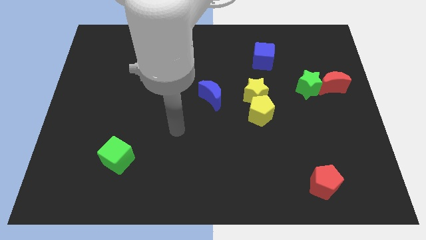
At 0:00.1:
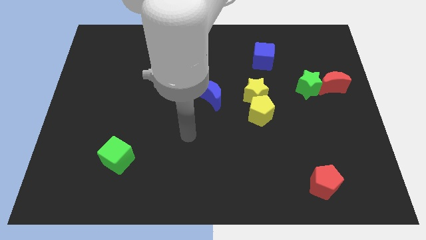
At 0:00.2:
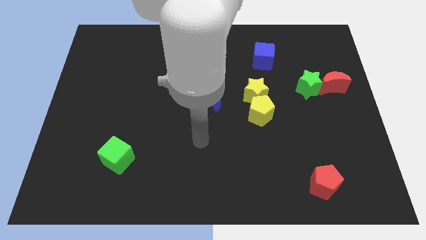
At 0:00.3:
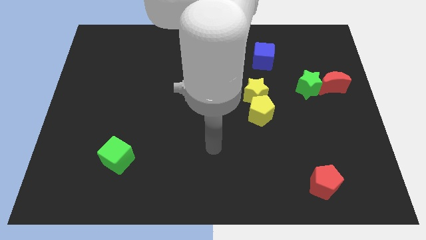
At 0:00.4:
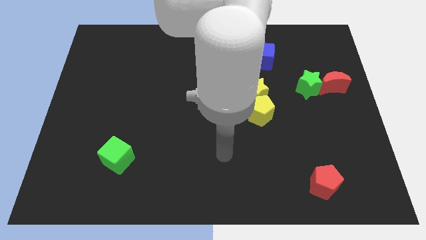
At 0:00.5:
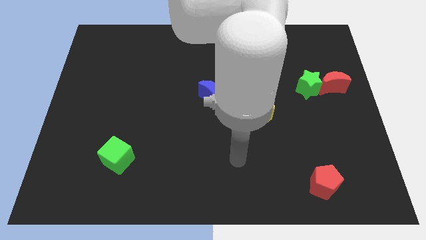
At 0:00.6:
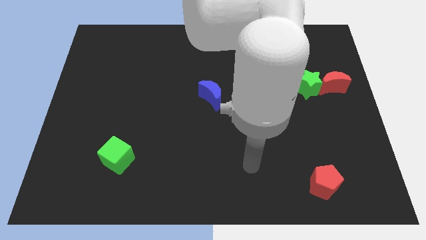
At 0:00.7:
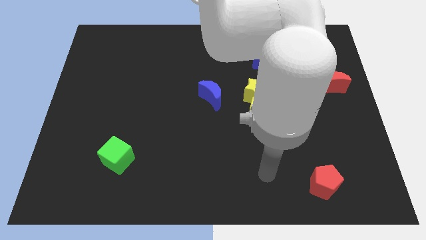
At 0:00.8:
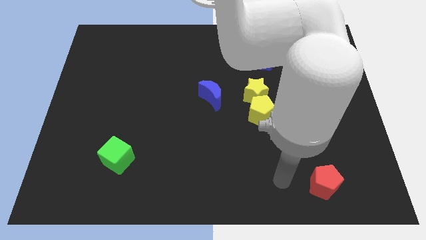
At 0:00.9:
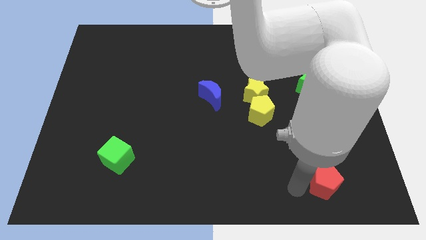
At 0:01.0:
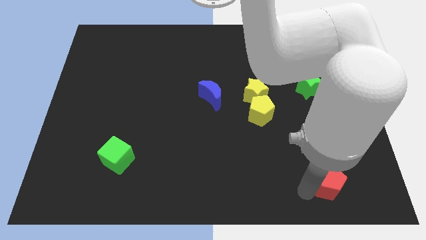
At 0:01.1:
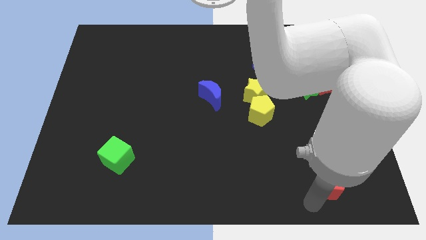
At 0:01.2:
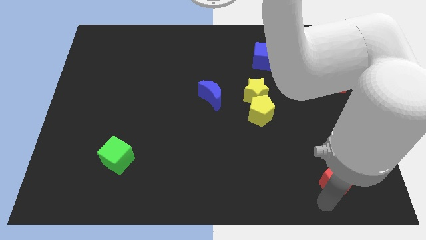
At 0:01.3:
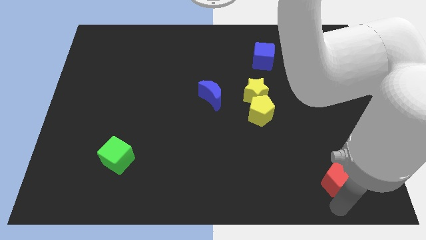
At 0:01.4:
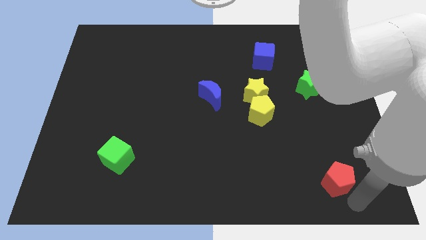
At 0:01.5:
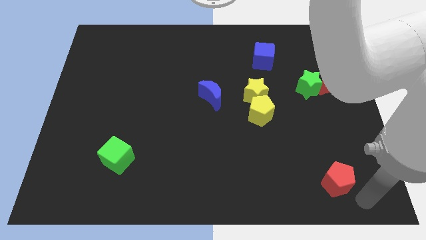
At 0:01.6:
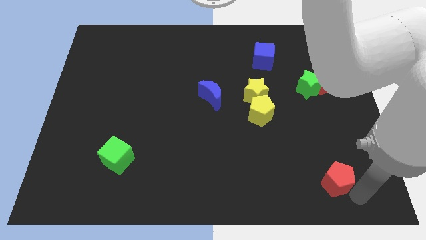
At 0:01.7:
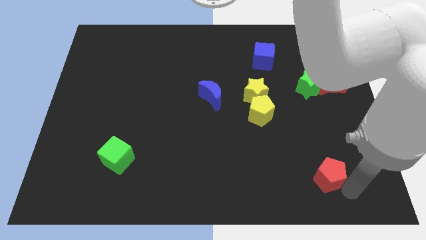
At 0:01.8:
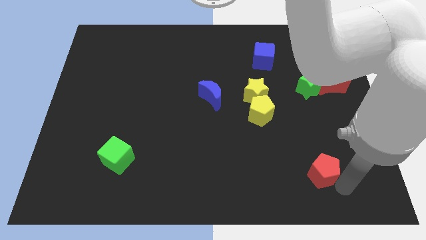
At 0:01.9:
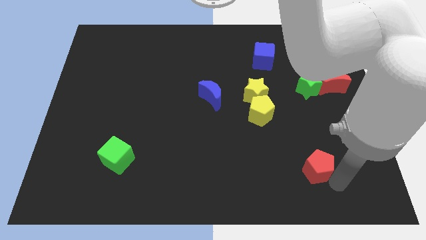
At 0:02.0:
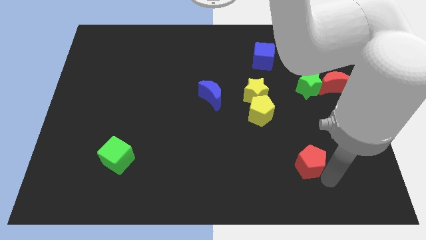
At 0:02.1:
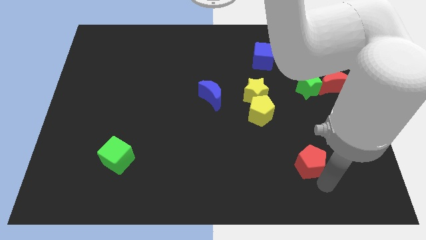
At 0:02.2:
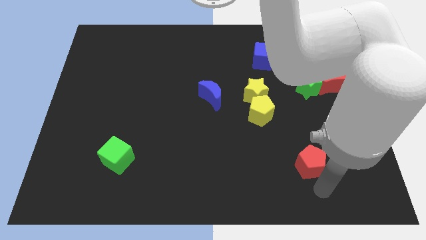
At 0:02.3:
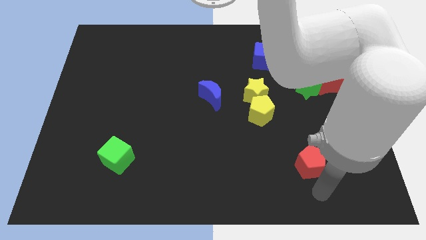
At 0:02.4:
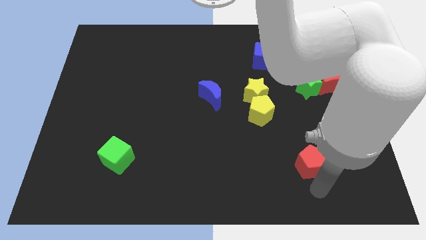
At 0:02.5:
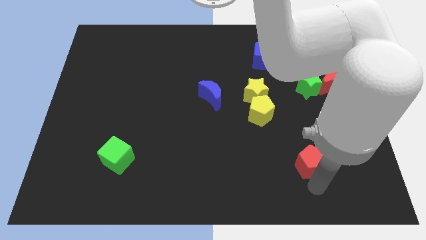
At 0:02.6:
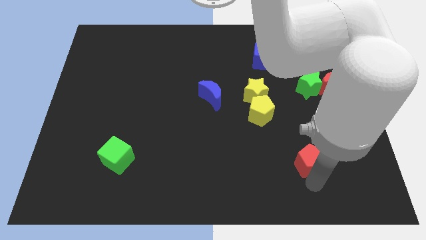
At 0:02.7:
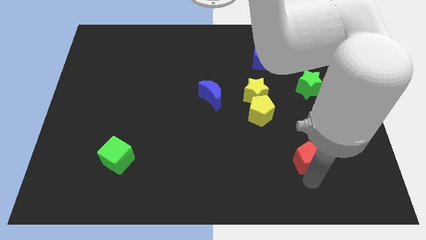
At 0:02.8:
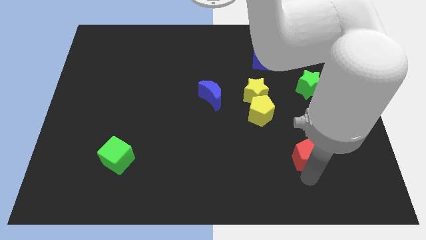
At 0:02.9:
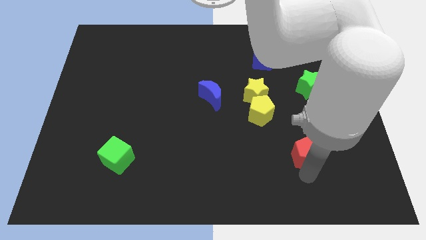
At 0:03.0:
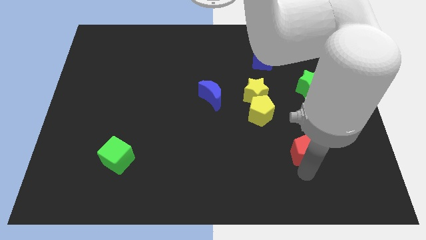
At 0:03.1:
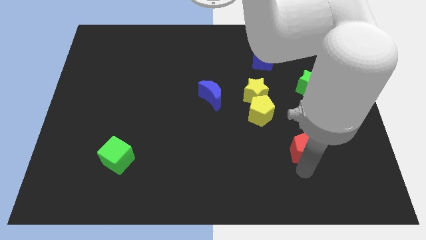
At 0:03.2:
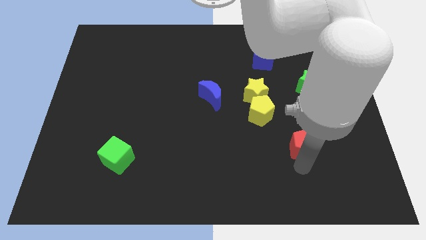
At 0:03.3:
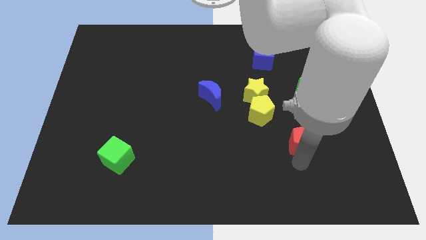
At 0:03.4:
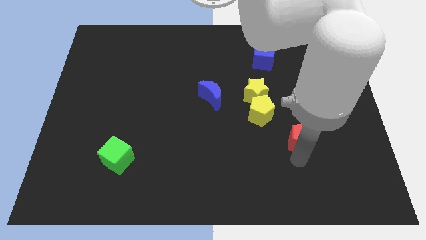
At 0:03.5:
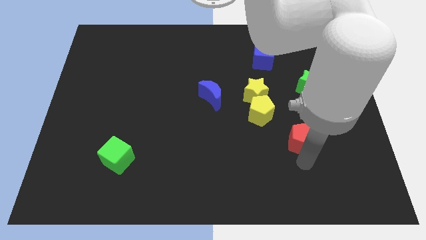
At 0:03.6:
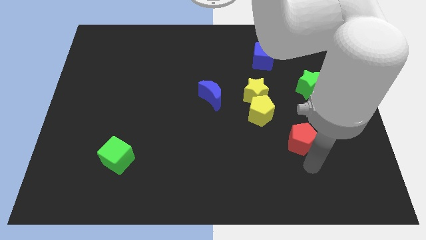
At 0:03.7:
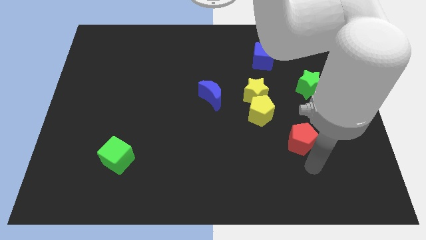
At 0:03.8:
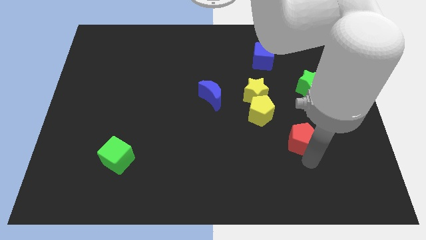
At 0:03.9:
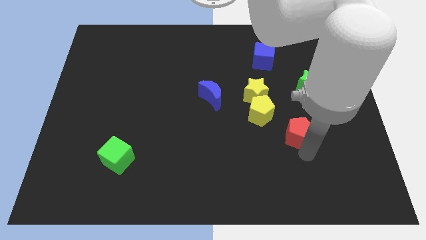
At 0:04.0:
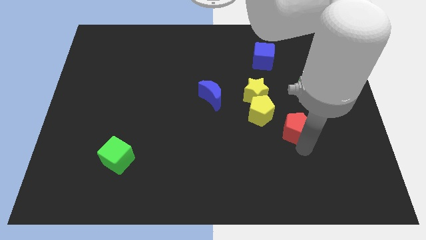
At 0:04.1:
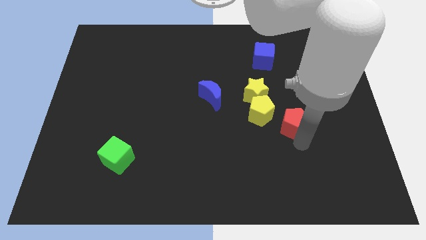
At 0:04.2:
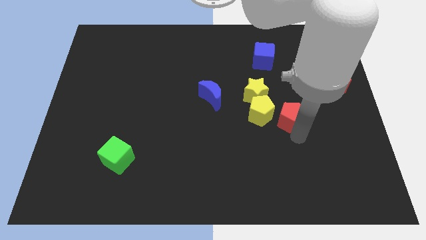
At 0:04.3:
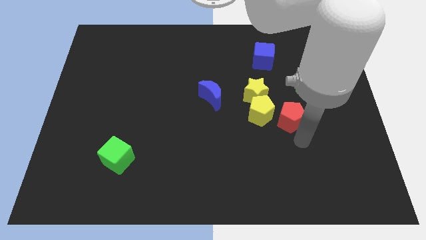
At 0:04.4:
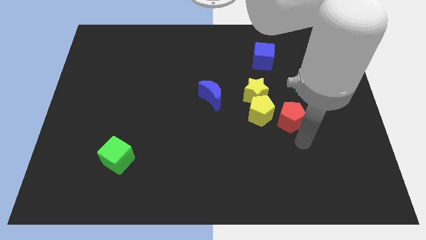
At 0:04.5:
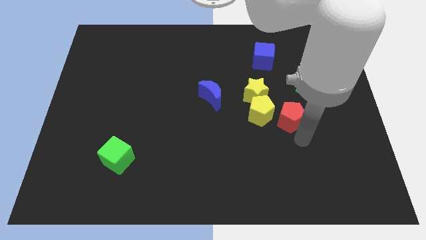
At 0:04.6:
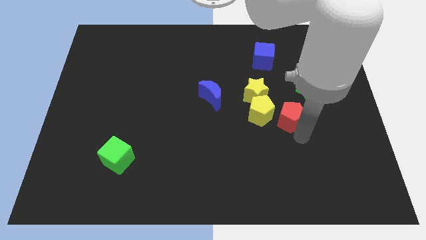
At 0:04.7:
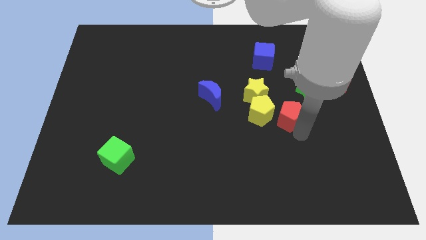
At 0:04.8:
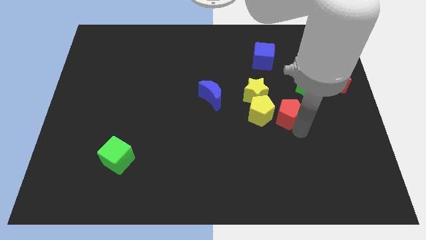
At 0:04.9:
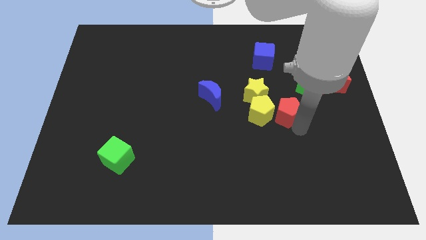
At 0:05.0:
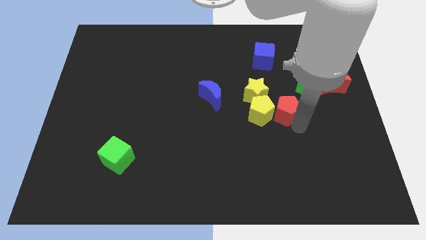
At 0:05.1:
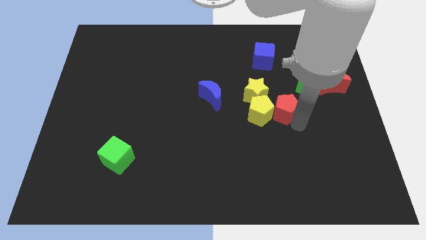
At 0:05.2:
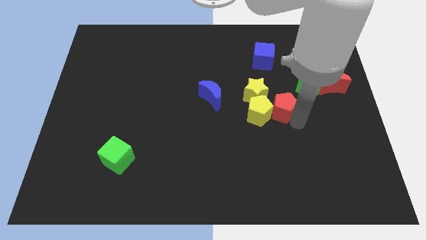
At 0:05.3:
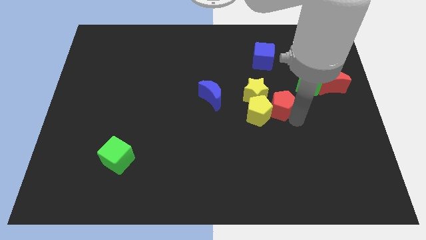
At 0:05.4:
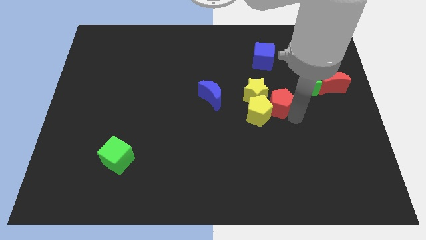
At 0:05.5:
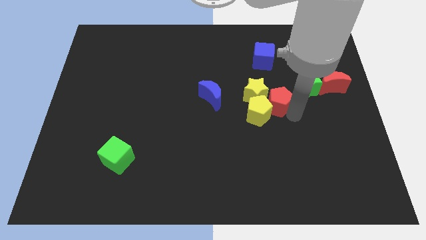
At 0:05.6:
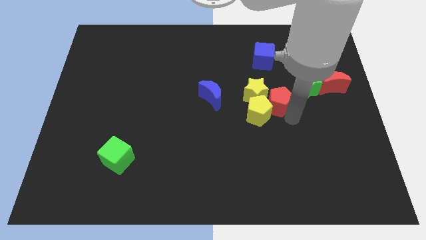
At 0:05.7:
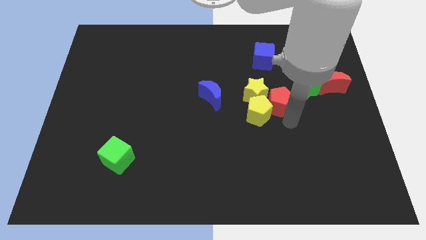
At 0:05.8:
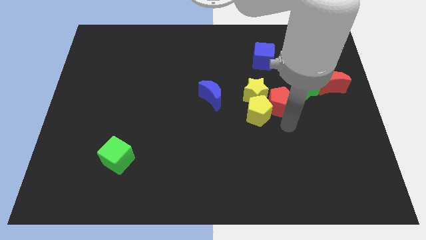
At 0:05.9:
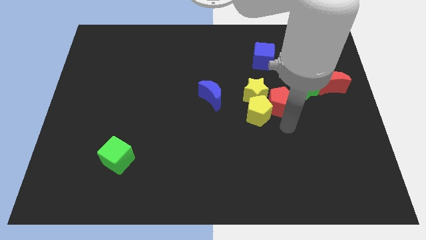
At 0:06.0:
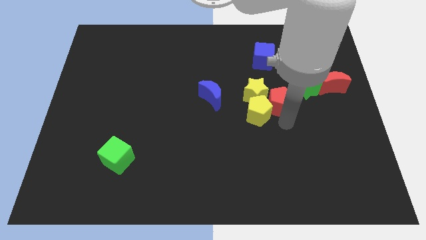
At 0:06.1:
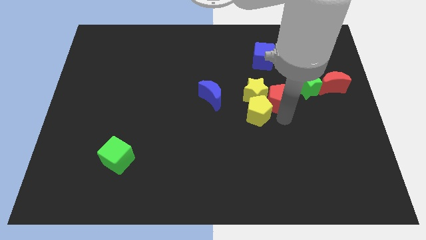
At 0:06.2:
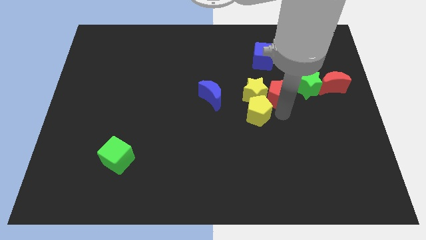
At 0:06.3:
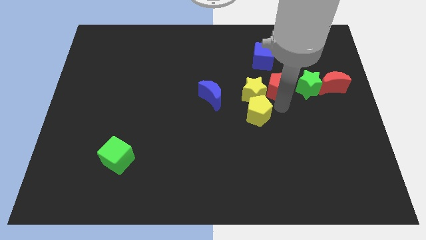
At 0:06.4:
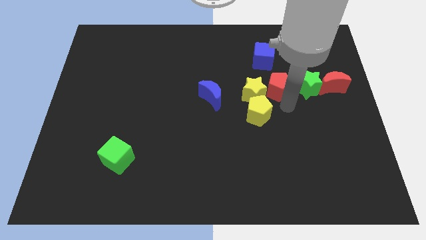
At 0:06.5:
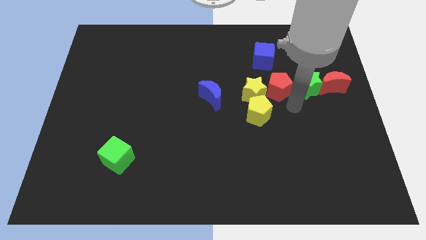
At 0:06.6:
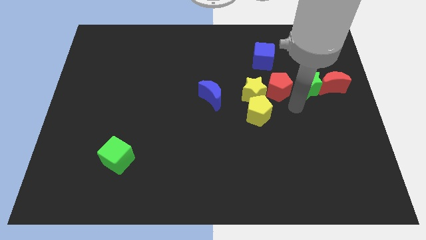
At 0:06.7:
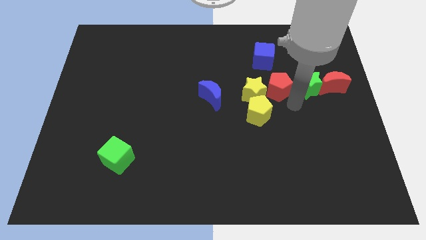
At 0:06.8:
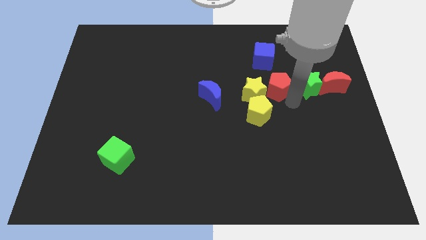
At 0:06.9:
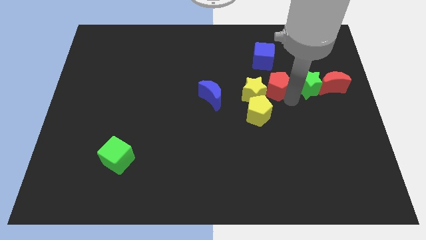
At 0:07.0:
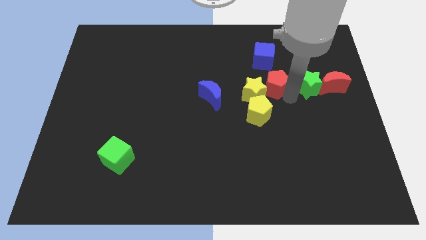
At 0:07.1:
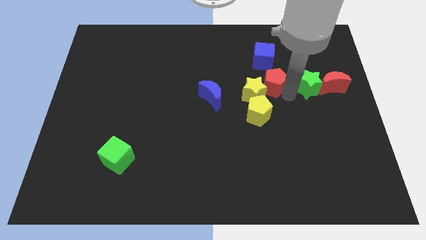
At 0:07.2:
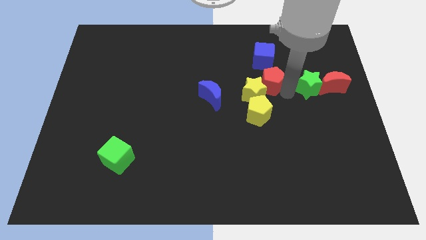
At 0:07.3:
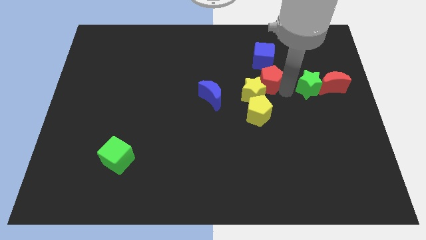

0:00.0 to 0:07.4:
push the red pentagon to the top of the yellow star
